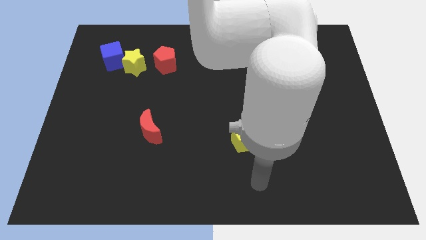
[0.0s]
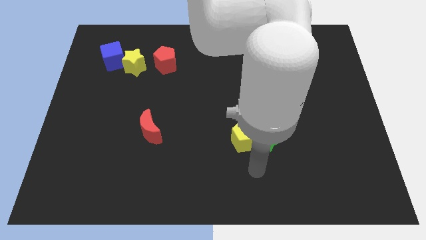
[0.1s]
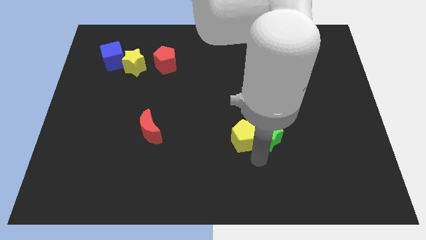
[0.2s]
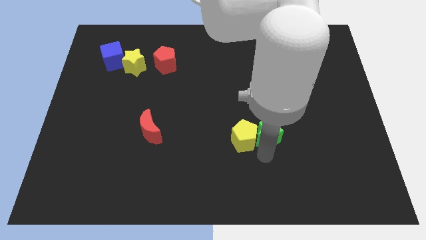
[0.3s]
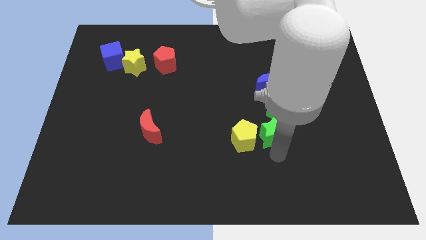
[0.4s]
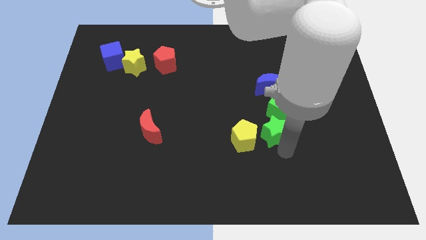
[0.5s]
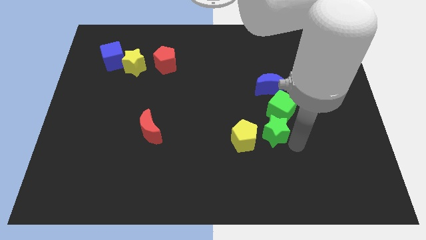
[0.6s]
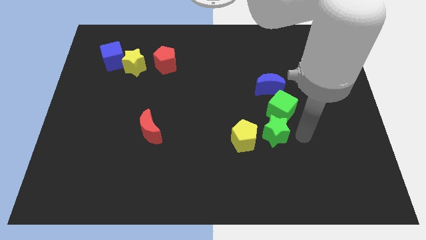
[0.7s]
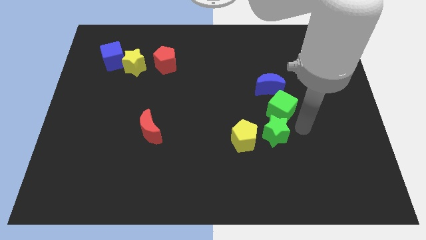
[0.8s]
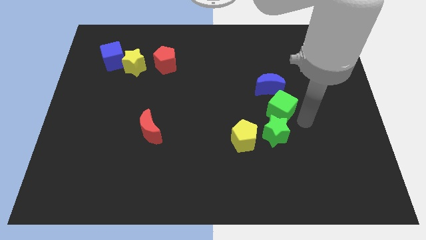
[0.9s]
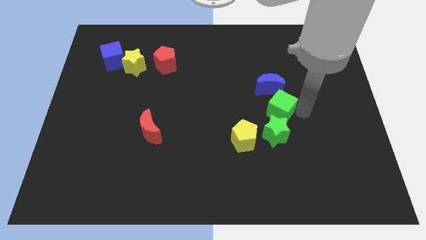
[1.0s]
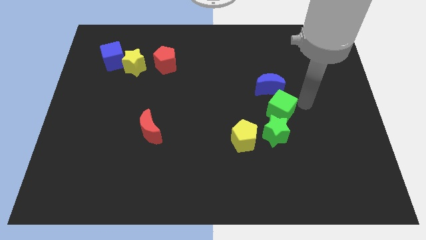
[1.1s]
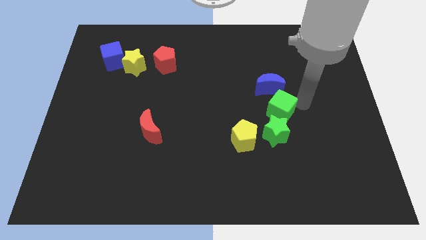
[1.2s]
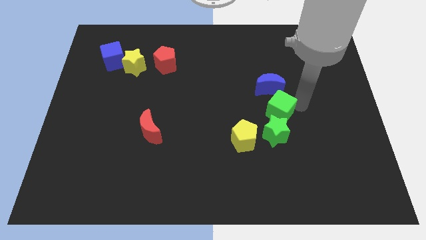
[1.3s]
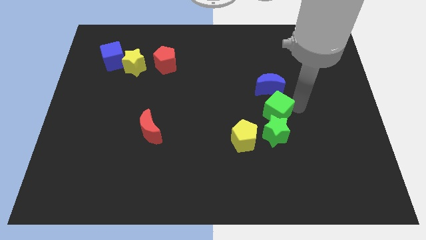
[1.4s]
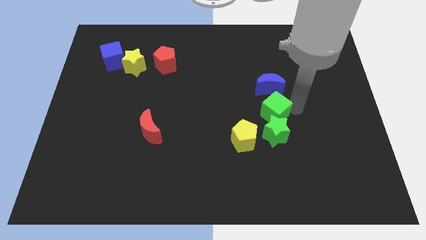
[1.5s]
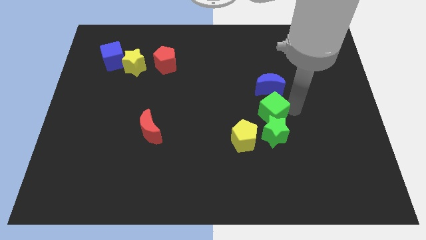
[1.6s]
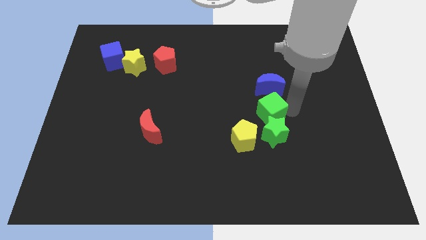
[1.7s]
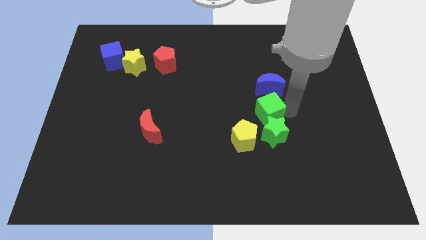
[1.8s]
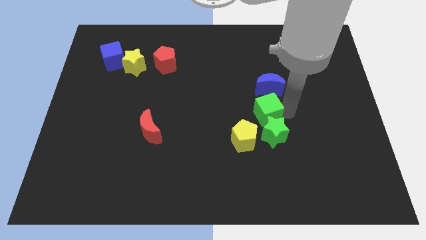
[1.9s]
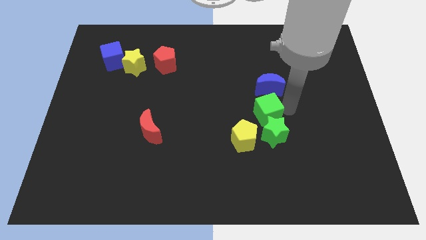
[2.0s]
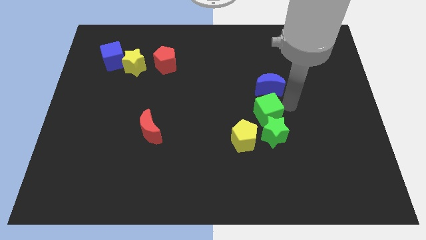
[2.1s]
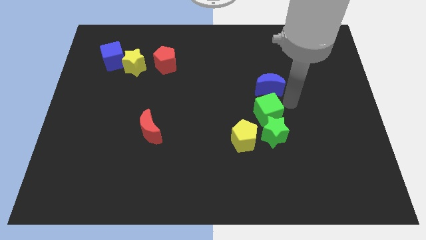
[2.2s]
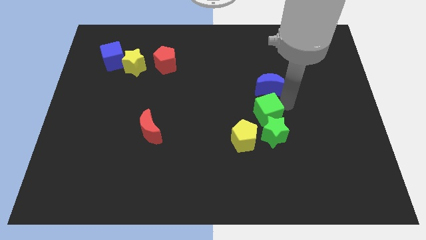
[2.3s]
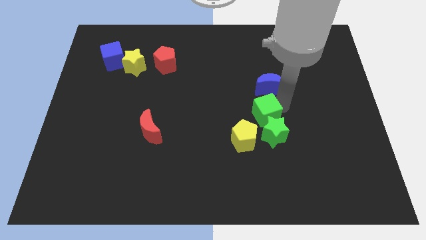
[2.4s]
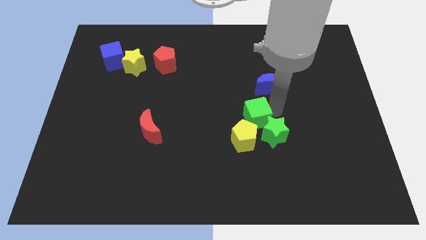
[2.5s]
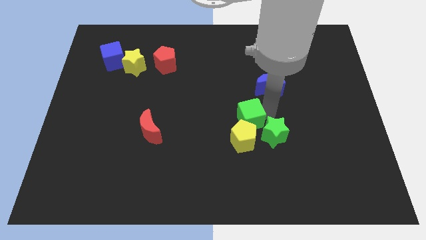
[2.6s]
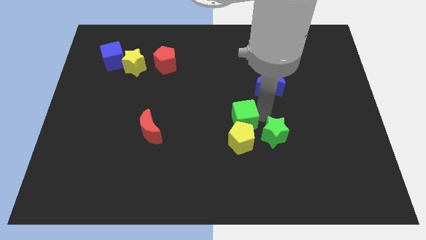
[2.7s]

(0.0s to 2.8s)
push the green cube downwards and to the left somewhat

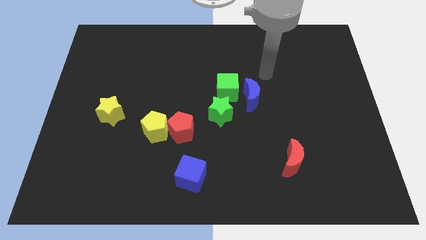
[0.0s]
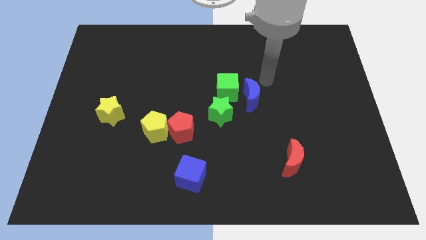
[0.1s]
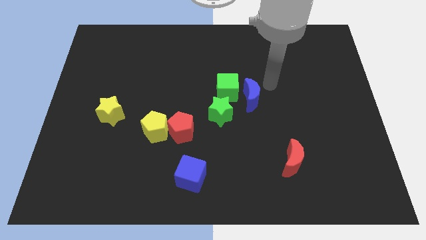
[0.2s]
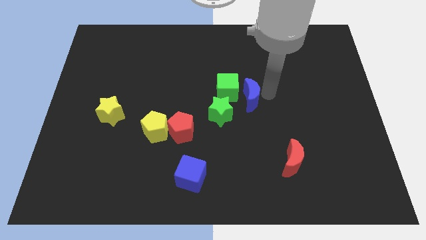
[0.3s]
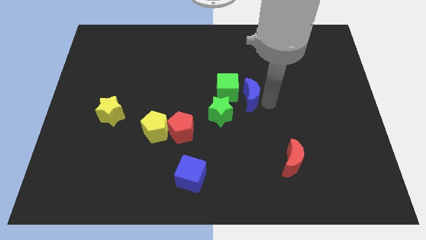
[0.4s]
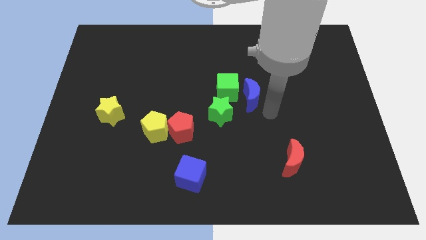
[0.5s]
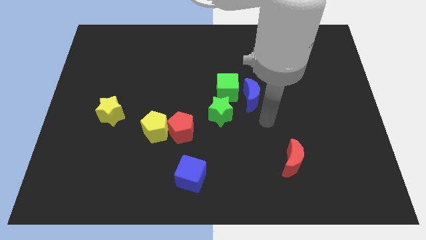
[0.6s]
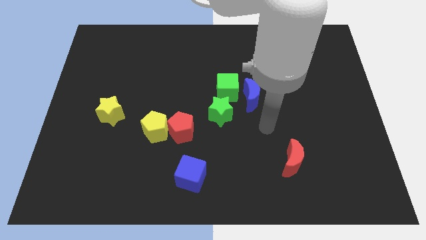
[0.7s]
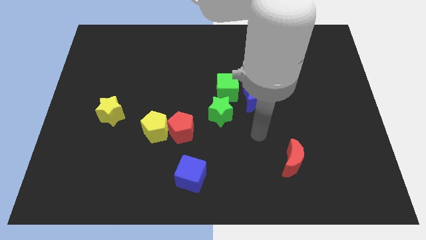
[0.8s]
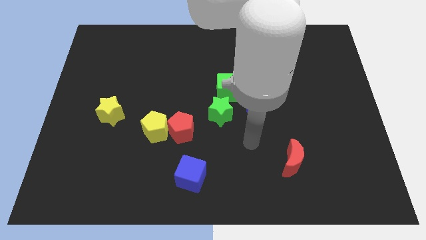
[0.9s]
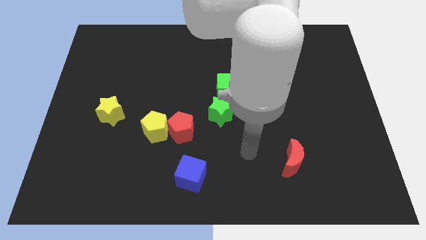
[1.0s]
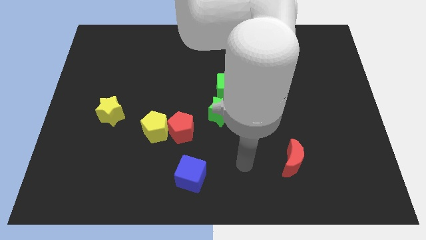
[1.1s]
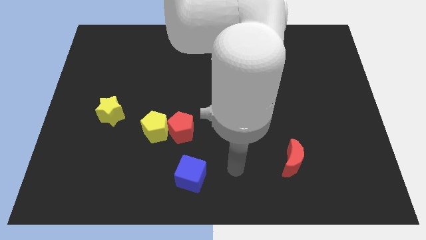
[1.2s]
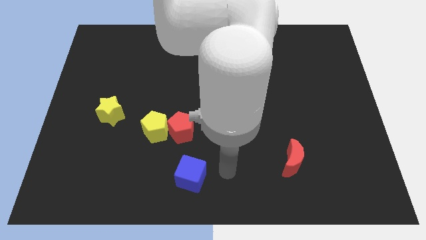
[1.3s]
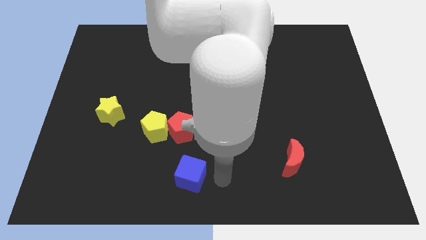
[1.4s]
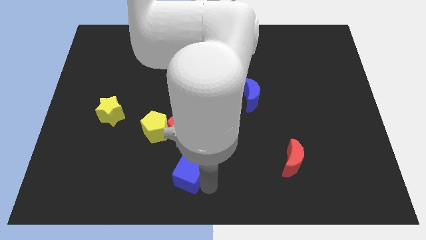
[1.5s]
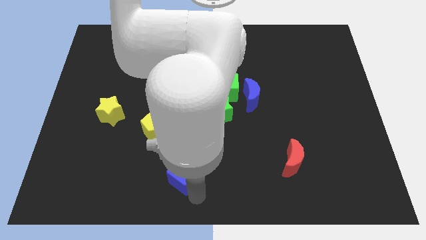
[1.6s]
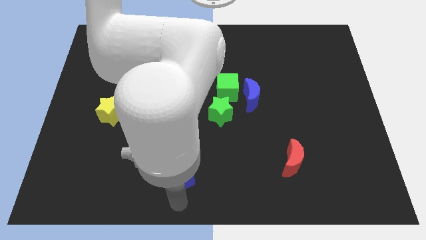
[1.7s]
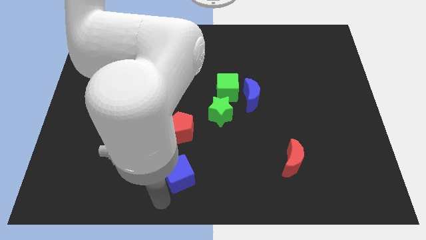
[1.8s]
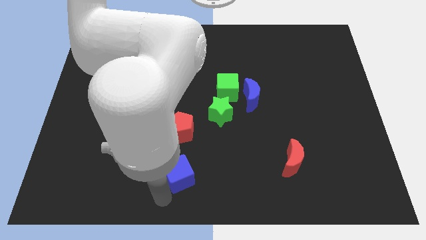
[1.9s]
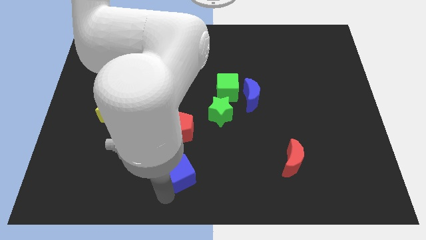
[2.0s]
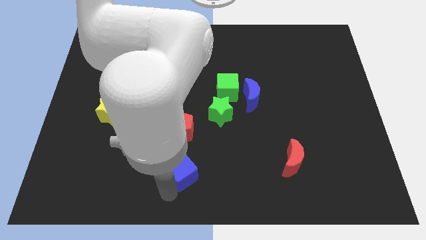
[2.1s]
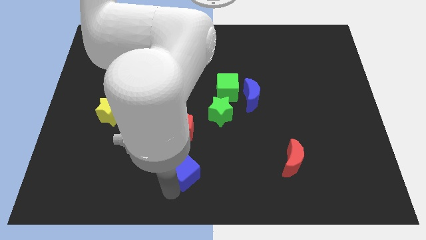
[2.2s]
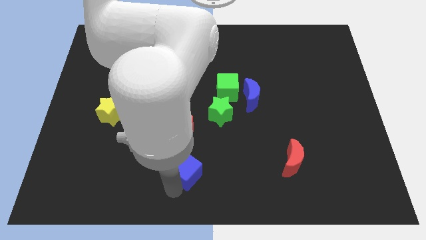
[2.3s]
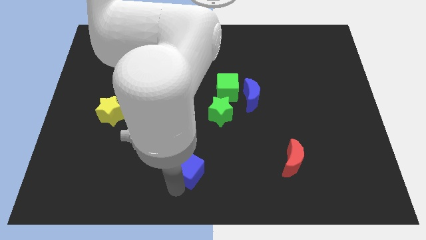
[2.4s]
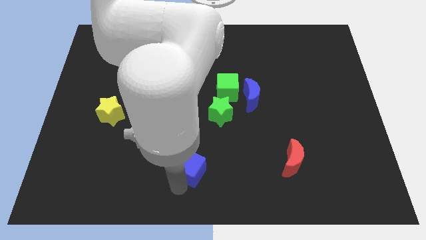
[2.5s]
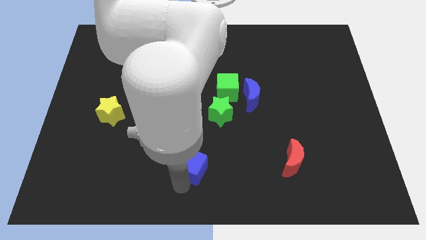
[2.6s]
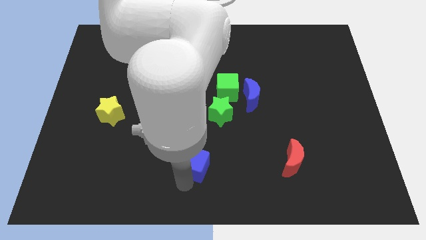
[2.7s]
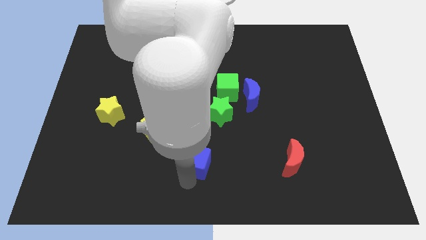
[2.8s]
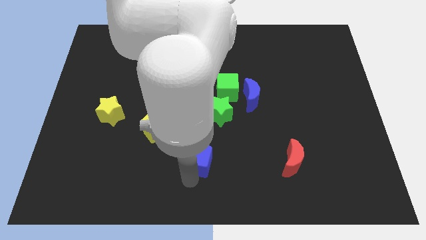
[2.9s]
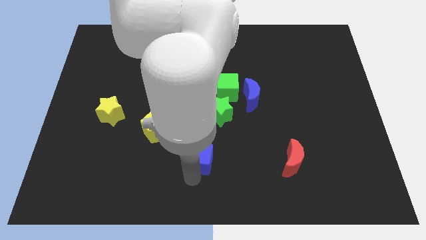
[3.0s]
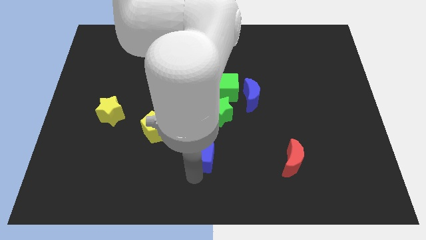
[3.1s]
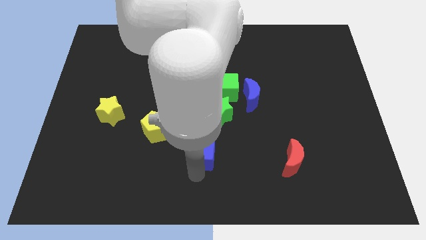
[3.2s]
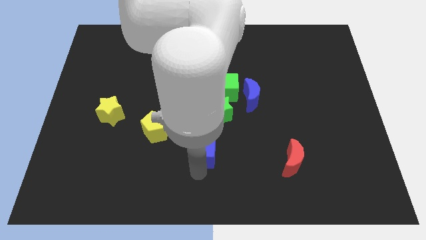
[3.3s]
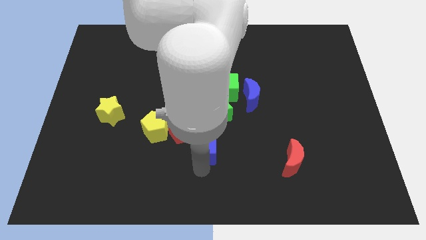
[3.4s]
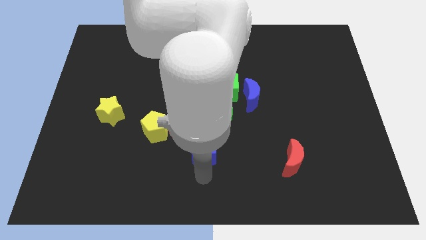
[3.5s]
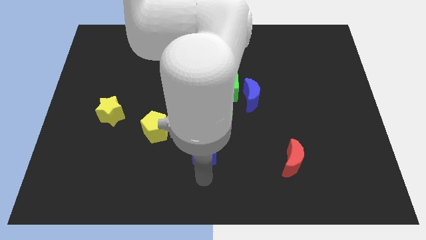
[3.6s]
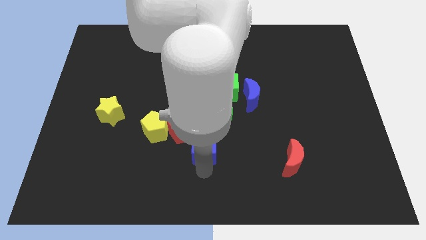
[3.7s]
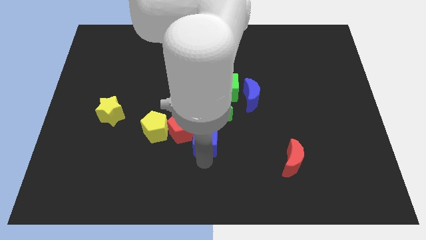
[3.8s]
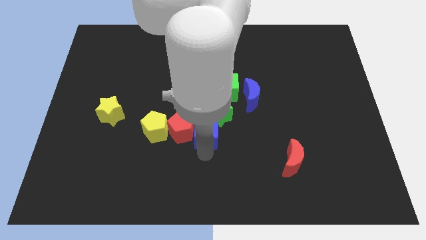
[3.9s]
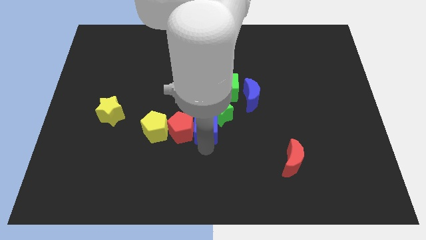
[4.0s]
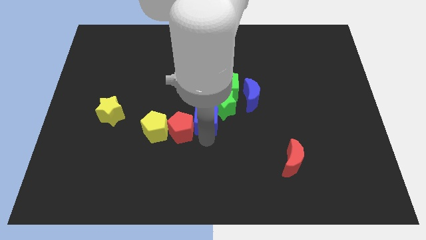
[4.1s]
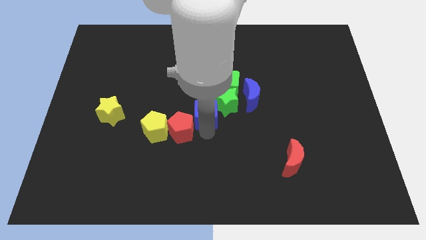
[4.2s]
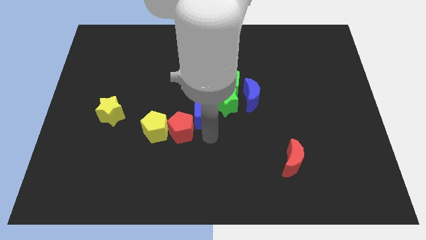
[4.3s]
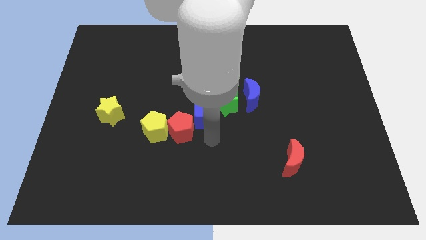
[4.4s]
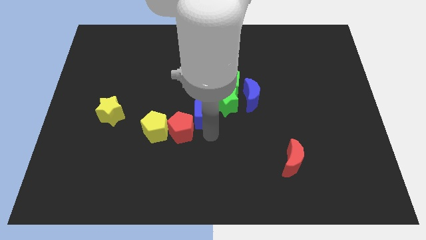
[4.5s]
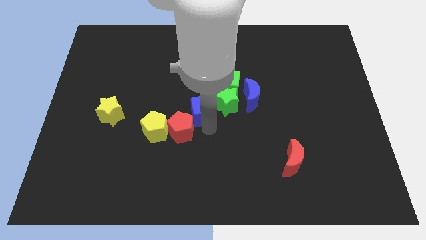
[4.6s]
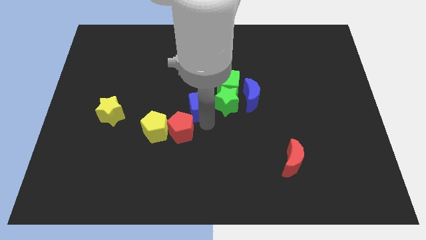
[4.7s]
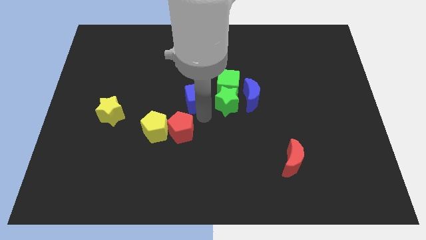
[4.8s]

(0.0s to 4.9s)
slide the blue cube up

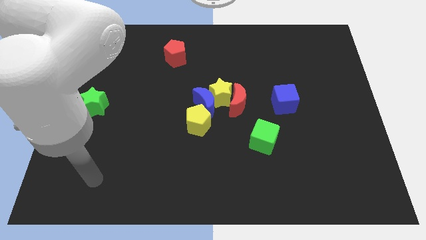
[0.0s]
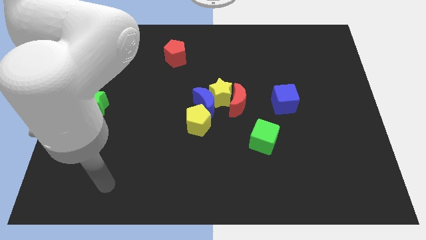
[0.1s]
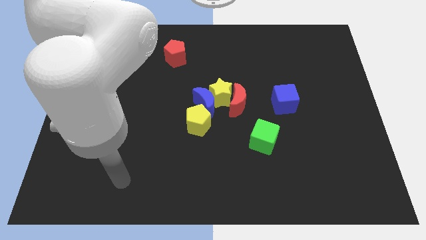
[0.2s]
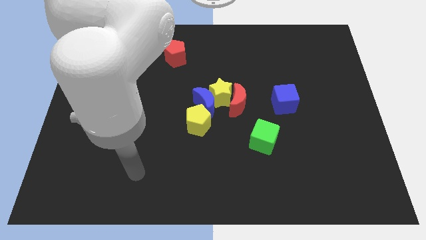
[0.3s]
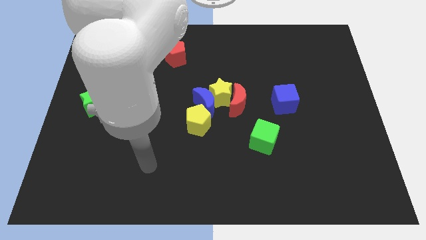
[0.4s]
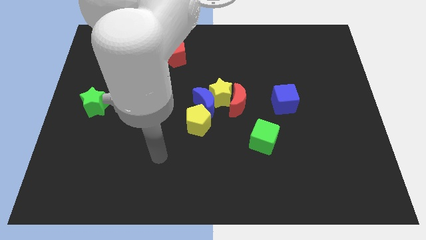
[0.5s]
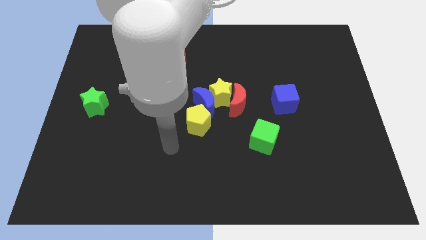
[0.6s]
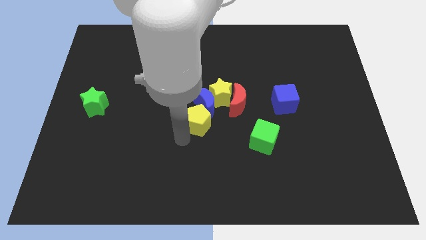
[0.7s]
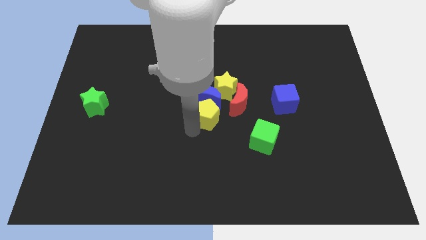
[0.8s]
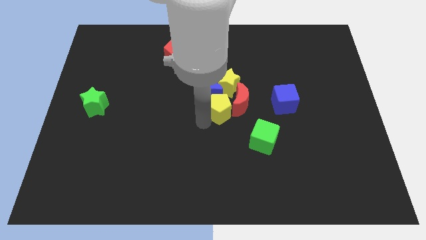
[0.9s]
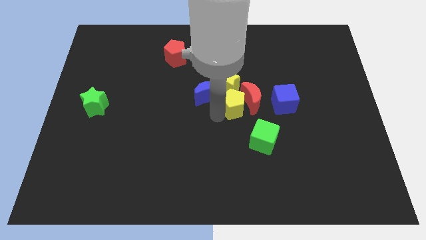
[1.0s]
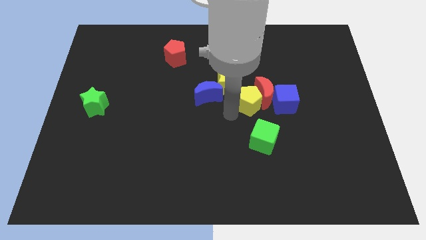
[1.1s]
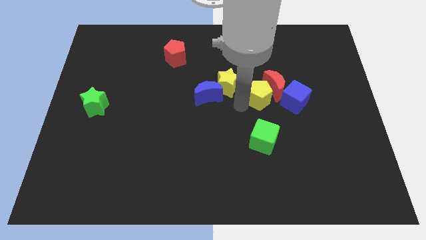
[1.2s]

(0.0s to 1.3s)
move the red moon a bit to the right
